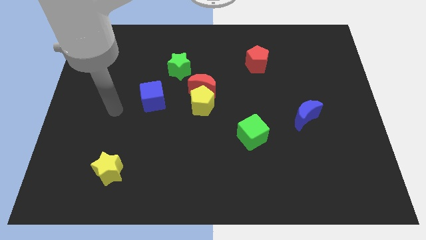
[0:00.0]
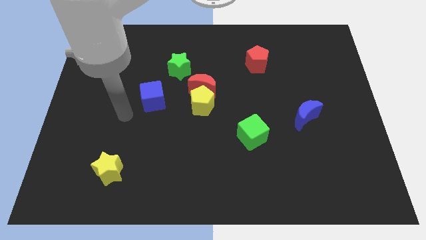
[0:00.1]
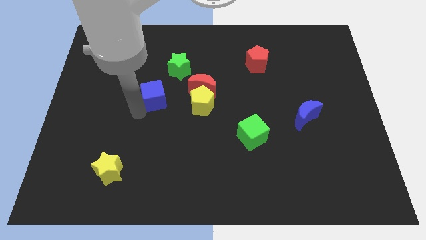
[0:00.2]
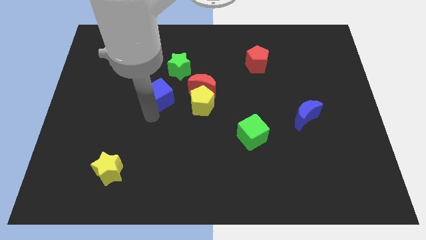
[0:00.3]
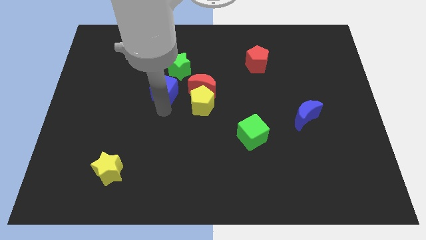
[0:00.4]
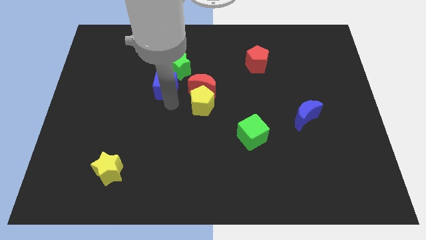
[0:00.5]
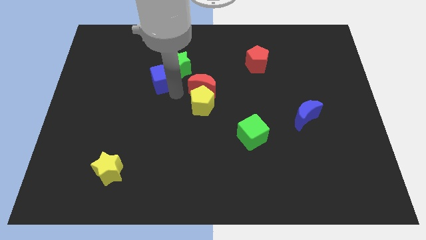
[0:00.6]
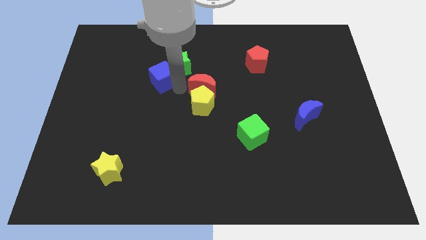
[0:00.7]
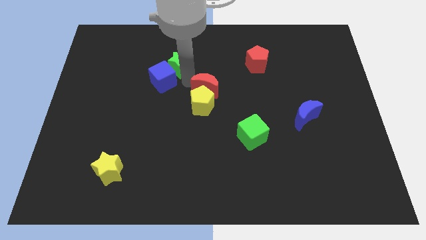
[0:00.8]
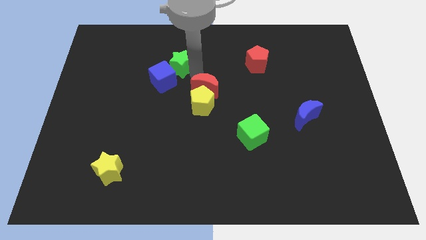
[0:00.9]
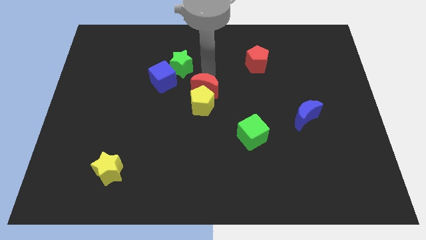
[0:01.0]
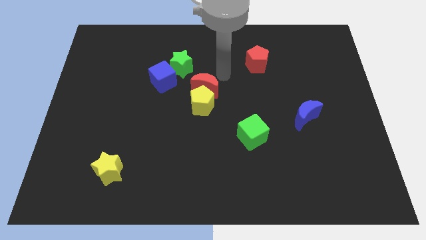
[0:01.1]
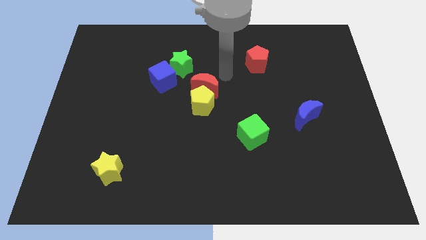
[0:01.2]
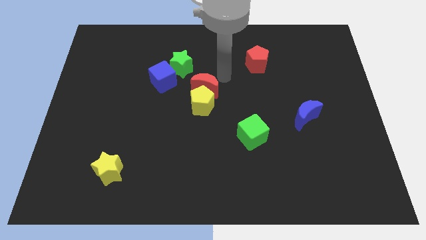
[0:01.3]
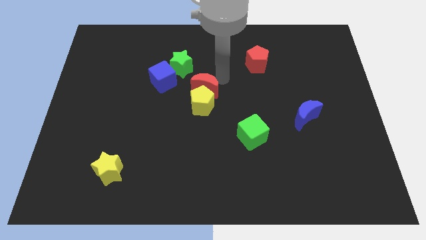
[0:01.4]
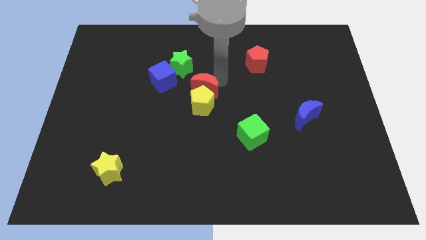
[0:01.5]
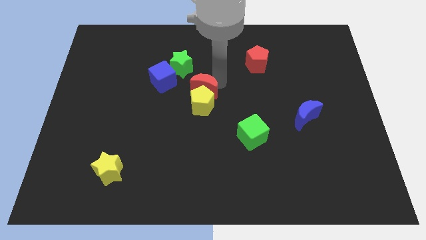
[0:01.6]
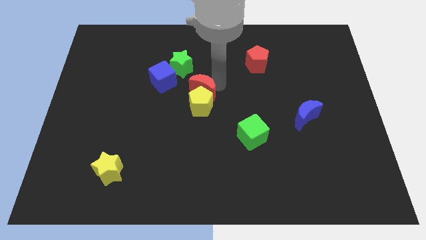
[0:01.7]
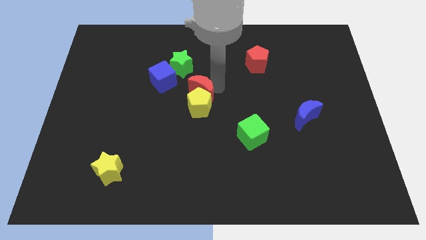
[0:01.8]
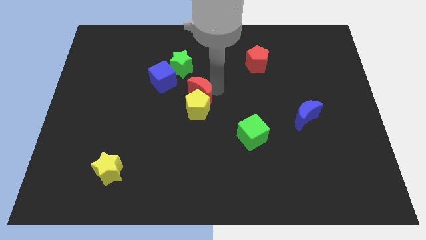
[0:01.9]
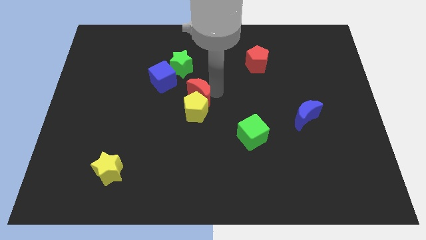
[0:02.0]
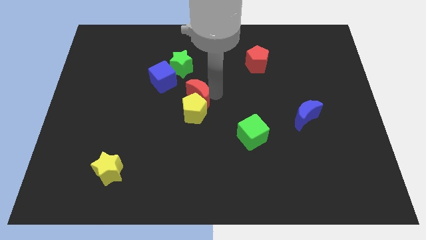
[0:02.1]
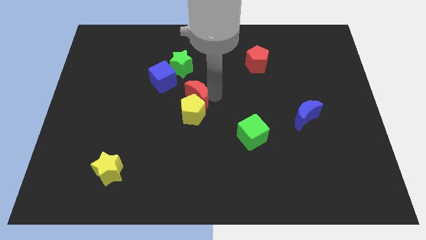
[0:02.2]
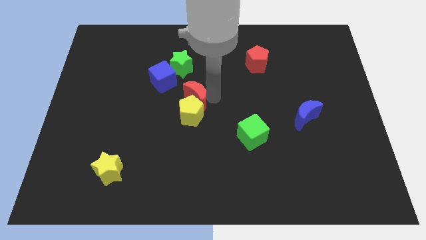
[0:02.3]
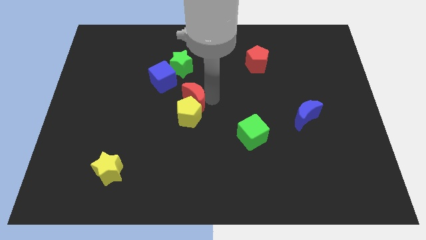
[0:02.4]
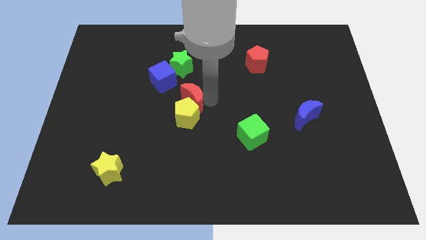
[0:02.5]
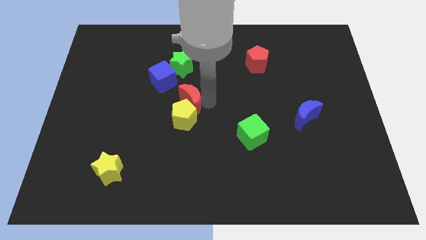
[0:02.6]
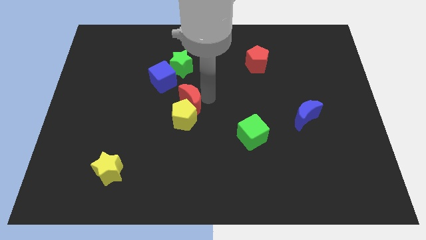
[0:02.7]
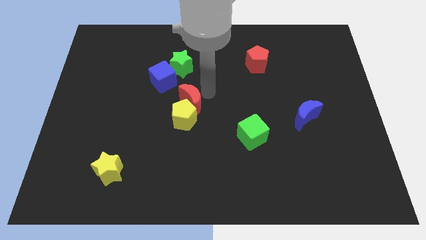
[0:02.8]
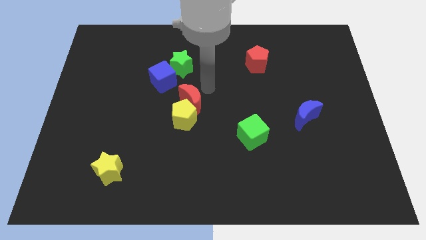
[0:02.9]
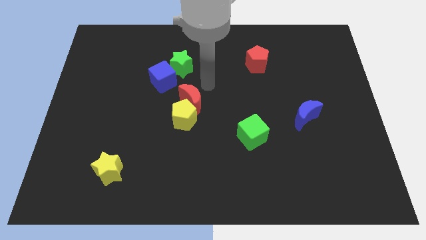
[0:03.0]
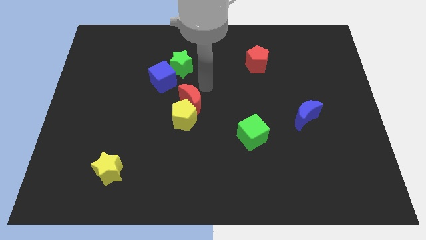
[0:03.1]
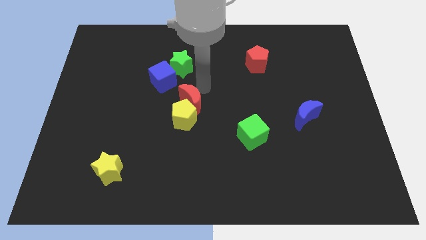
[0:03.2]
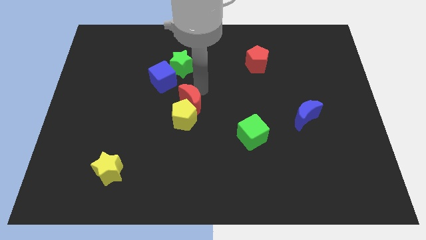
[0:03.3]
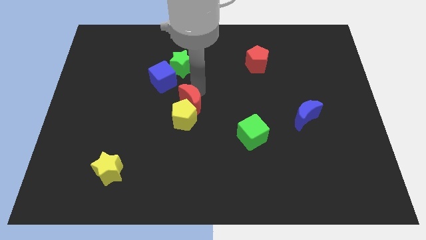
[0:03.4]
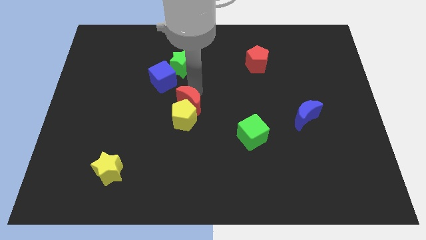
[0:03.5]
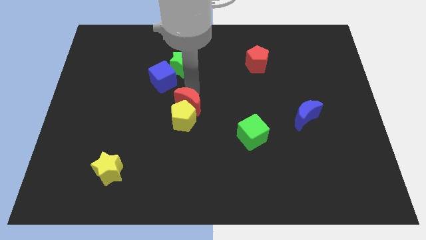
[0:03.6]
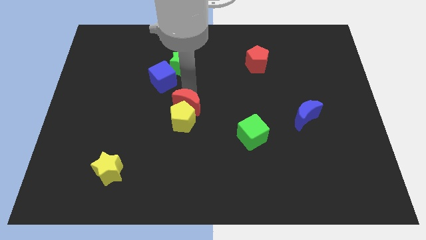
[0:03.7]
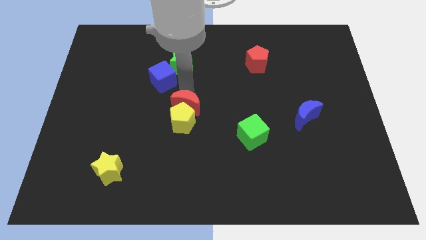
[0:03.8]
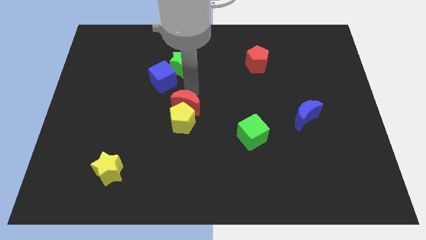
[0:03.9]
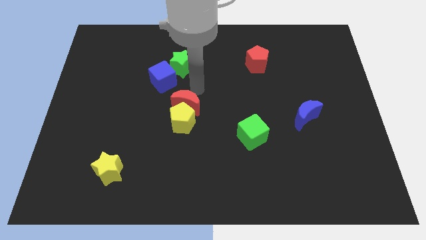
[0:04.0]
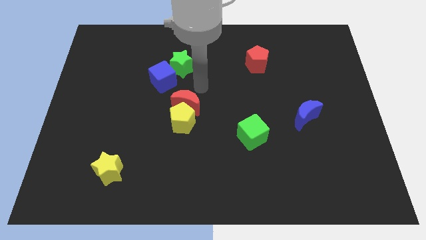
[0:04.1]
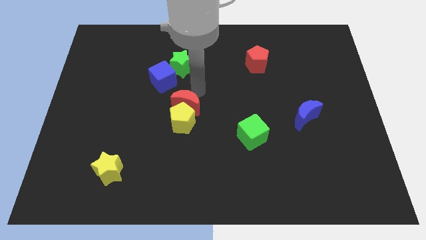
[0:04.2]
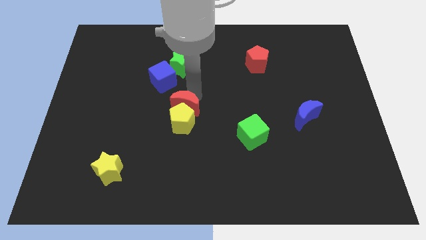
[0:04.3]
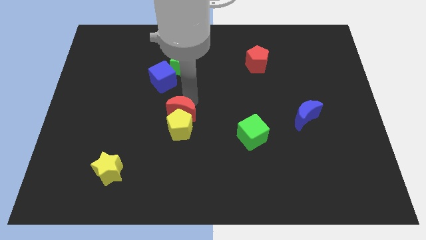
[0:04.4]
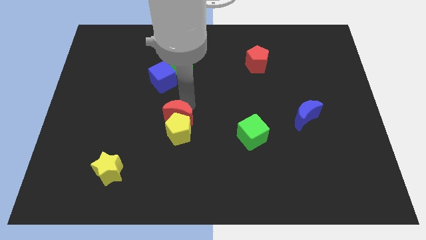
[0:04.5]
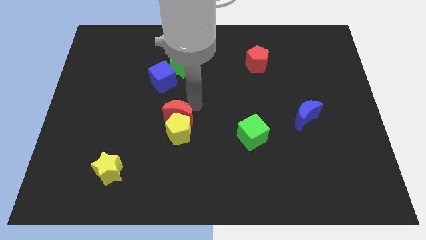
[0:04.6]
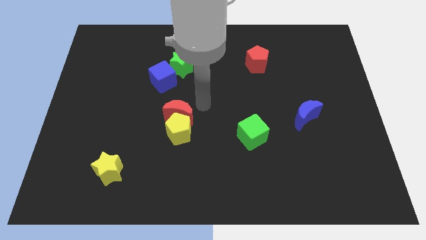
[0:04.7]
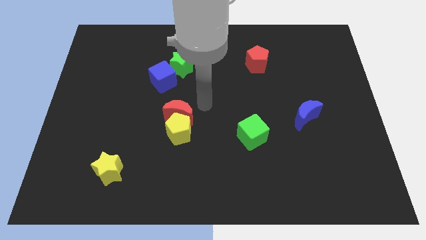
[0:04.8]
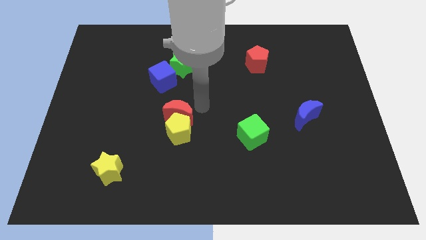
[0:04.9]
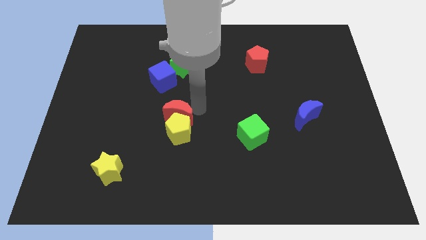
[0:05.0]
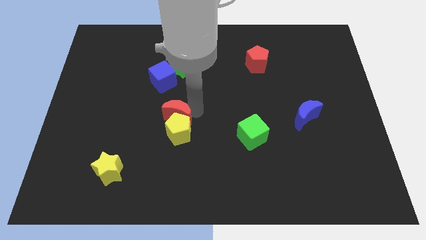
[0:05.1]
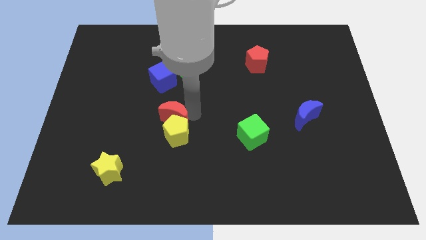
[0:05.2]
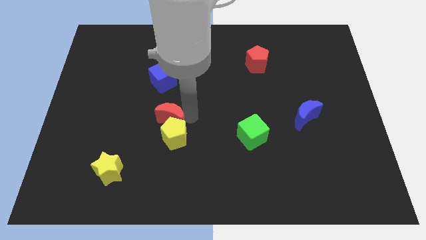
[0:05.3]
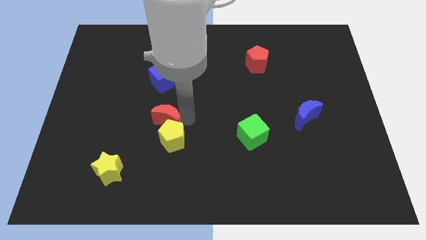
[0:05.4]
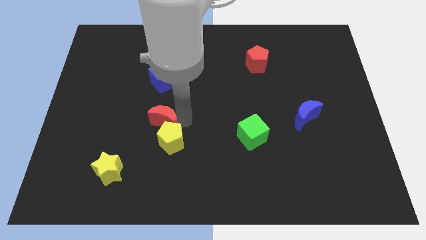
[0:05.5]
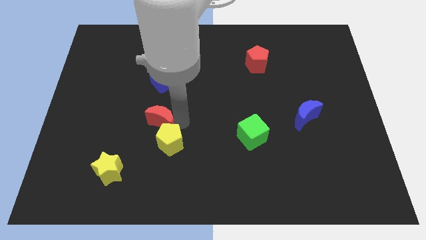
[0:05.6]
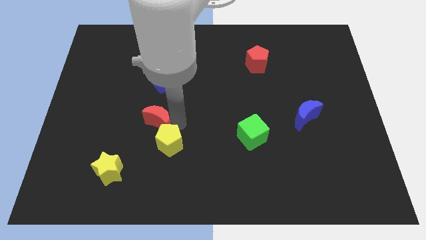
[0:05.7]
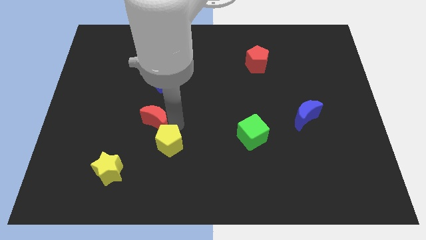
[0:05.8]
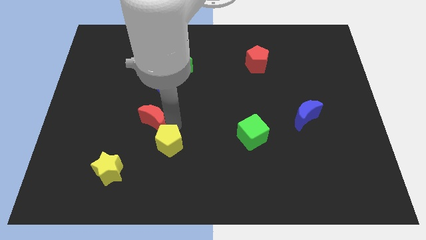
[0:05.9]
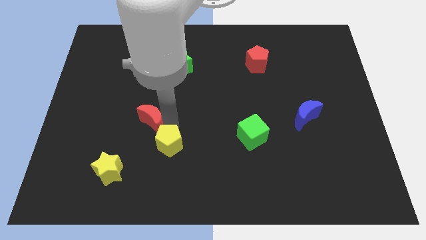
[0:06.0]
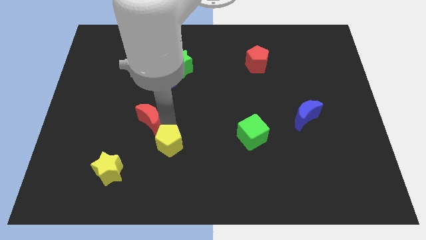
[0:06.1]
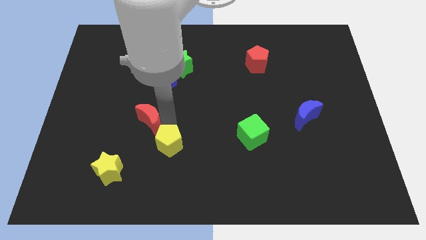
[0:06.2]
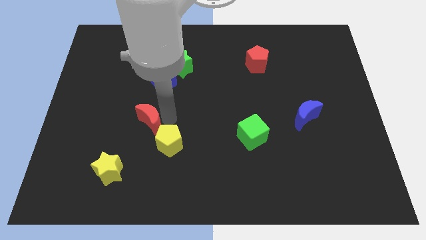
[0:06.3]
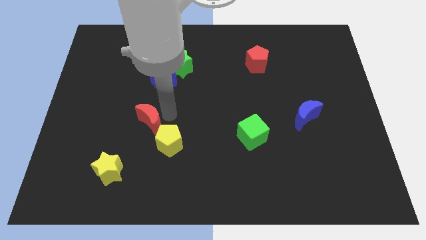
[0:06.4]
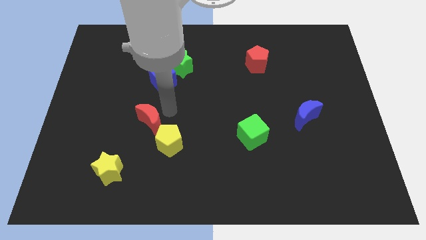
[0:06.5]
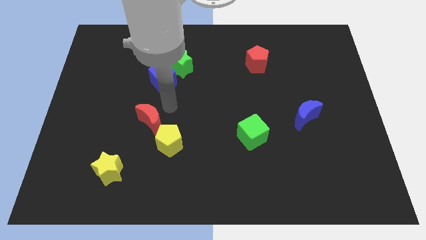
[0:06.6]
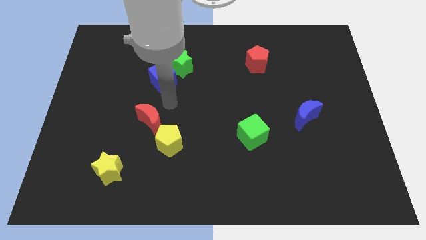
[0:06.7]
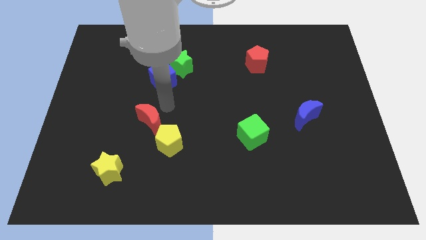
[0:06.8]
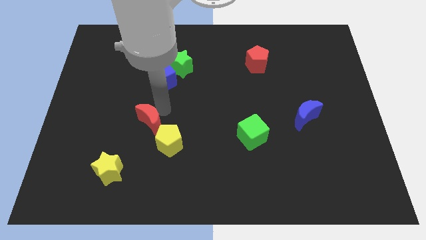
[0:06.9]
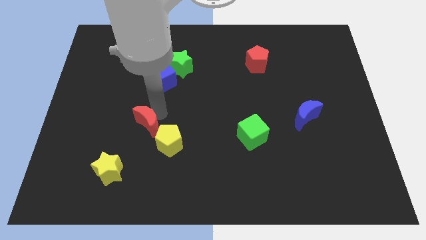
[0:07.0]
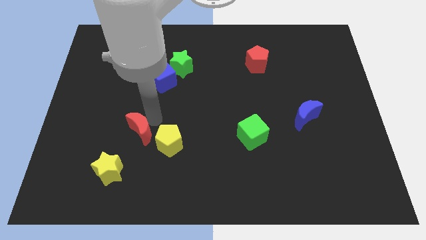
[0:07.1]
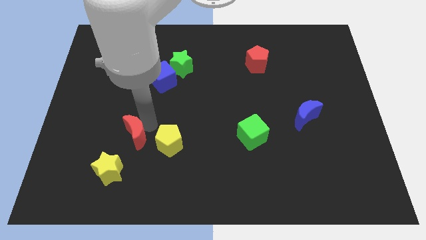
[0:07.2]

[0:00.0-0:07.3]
push the red moon diagonally downwards and to the left

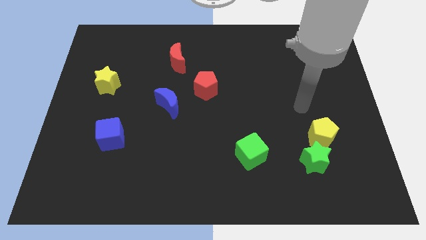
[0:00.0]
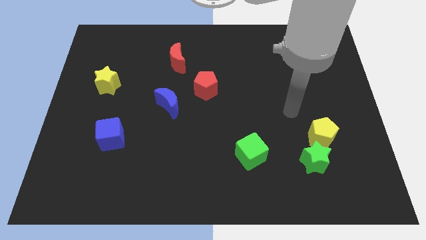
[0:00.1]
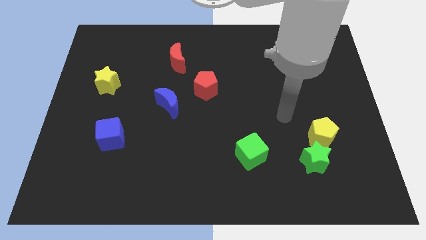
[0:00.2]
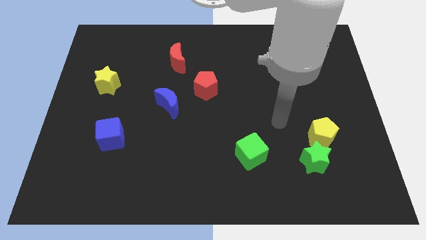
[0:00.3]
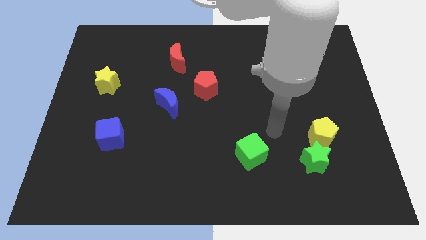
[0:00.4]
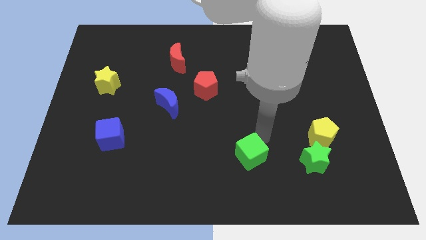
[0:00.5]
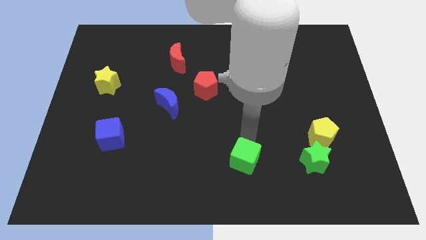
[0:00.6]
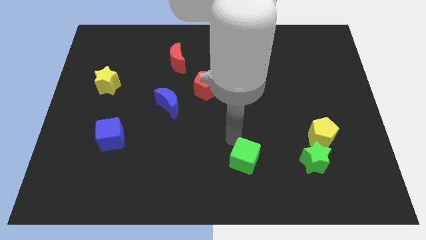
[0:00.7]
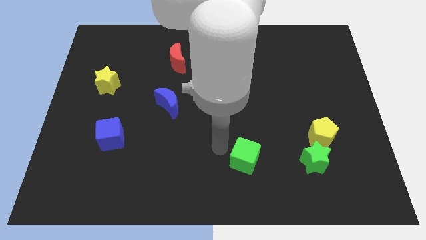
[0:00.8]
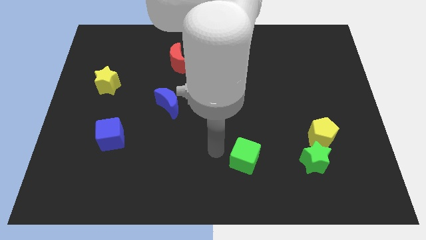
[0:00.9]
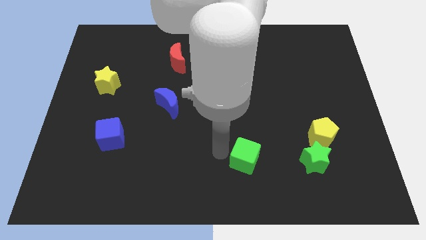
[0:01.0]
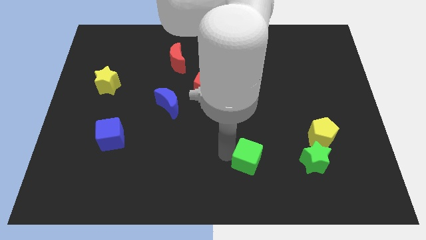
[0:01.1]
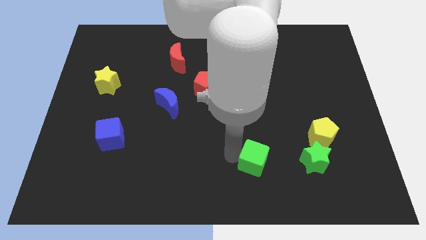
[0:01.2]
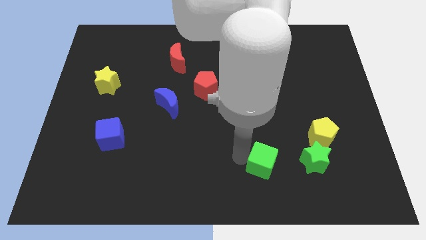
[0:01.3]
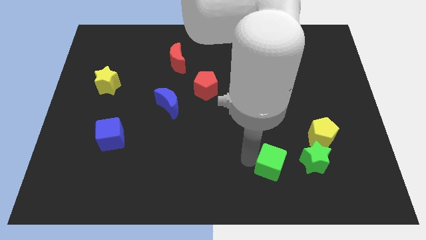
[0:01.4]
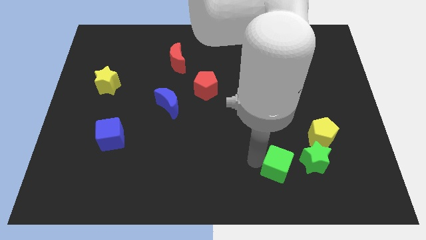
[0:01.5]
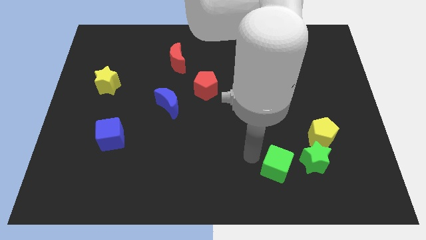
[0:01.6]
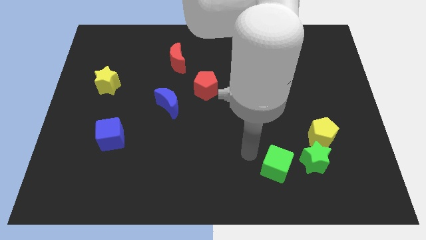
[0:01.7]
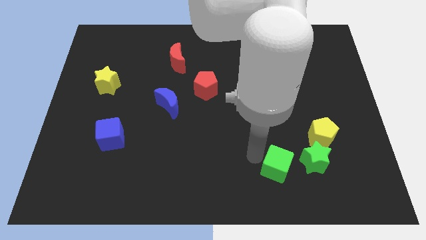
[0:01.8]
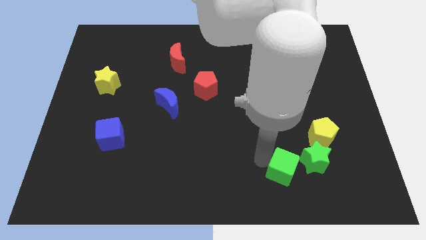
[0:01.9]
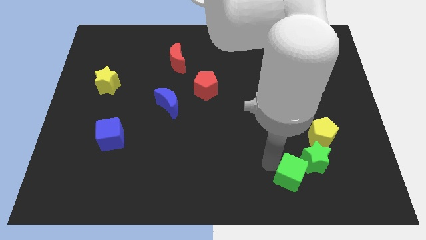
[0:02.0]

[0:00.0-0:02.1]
push the green cube to the right slightly
